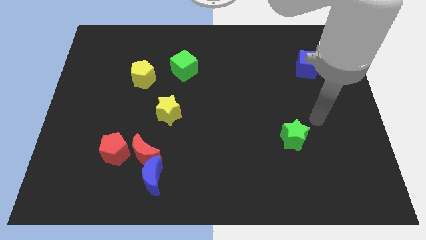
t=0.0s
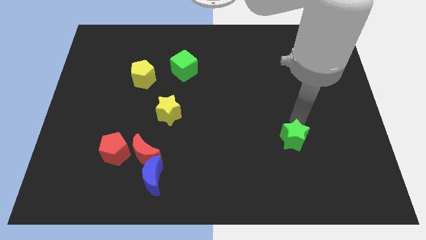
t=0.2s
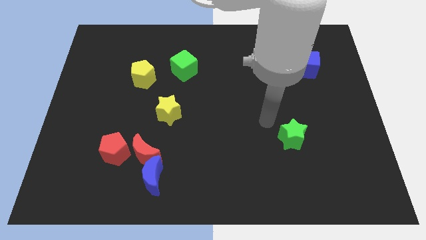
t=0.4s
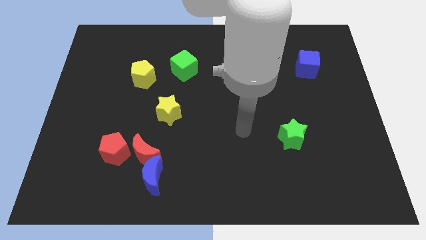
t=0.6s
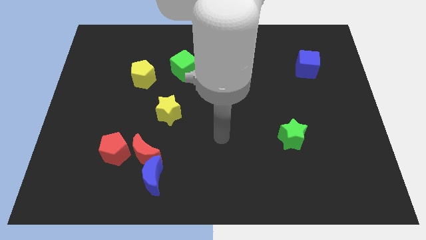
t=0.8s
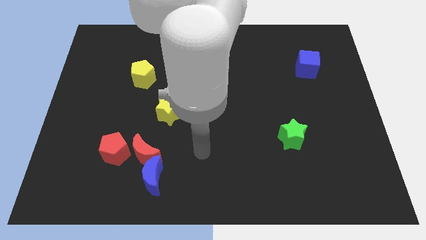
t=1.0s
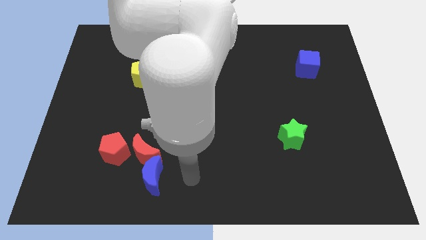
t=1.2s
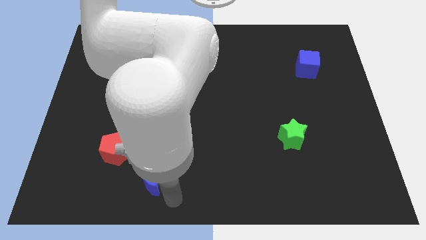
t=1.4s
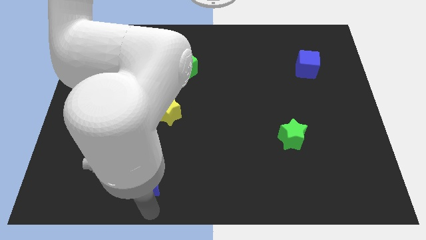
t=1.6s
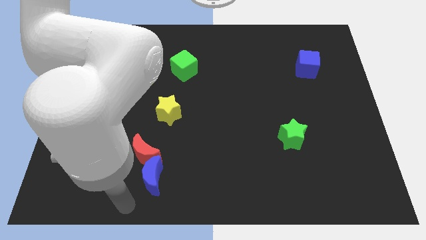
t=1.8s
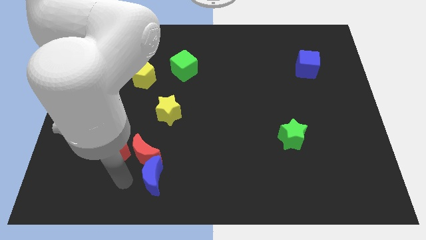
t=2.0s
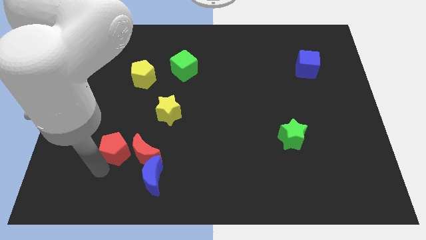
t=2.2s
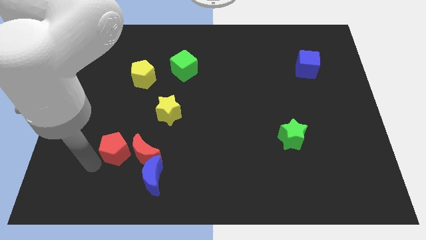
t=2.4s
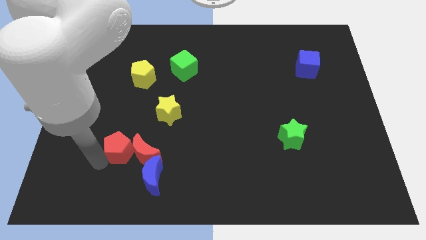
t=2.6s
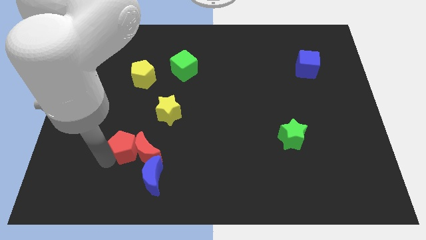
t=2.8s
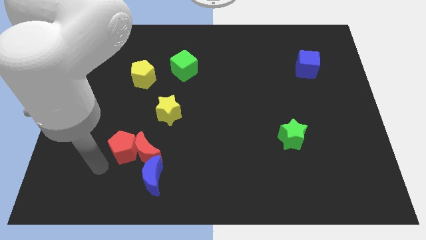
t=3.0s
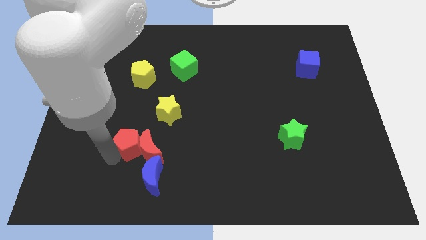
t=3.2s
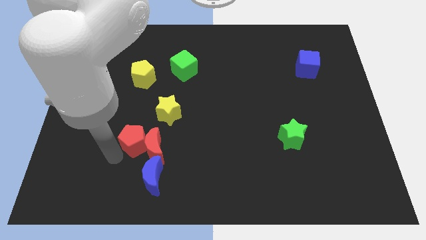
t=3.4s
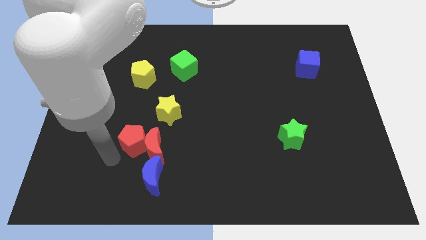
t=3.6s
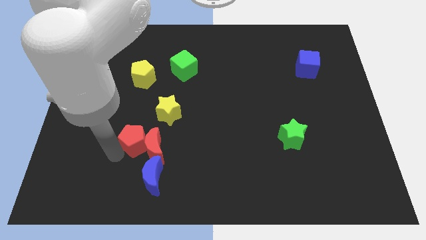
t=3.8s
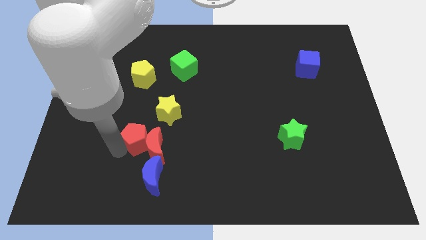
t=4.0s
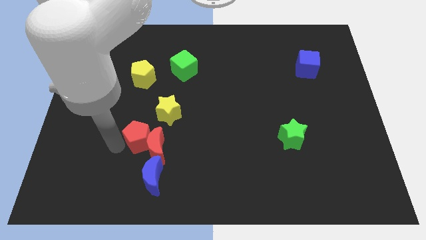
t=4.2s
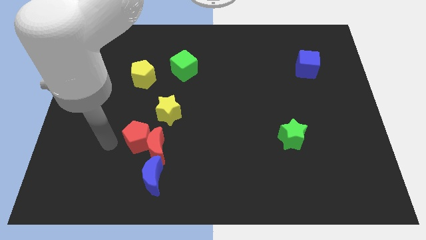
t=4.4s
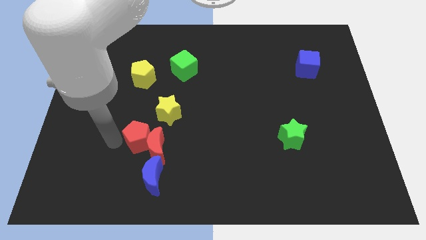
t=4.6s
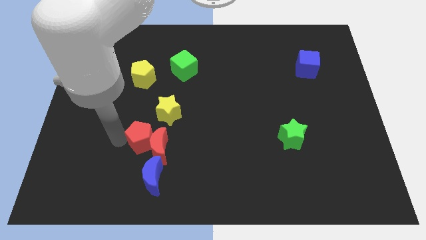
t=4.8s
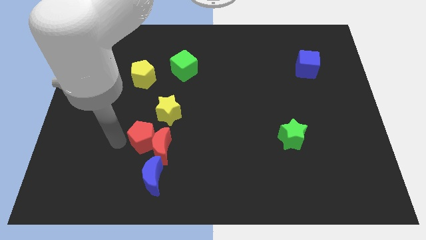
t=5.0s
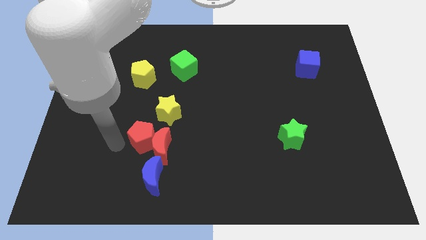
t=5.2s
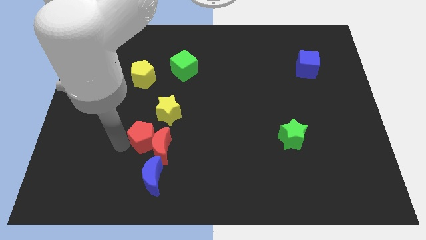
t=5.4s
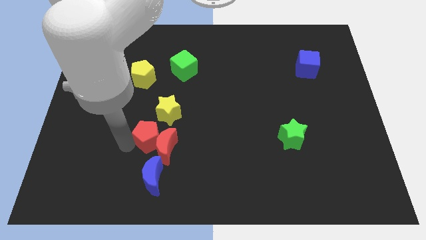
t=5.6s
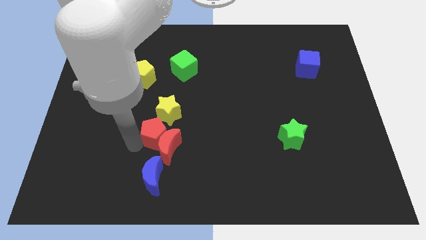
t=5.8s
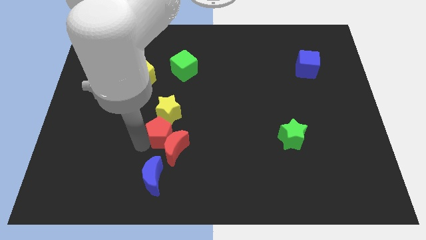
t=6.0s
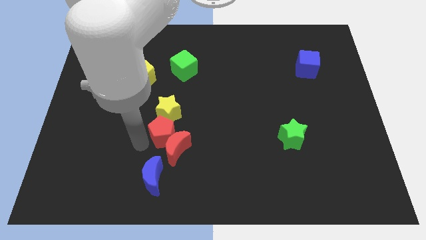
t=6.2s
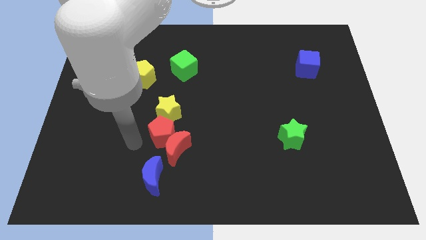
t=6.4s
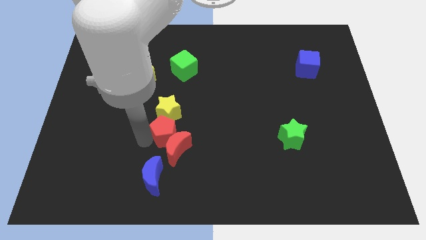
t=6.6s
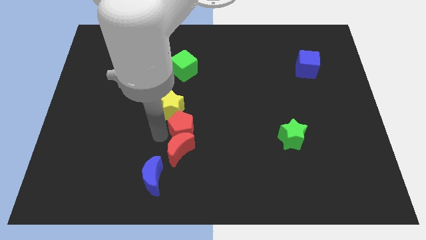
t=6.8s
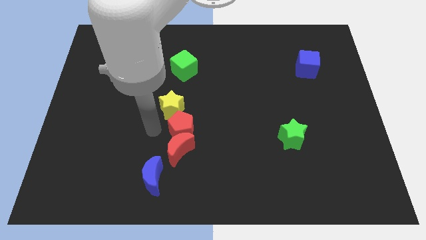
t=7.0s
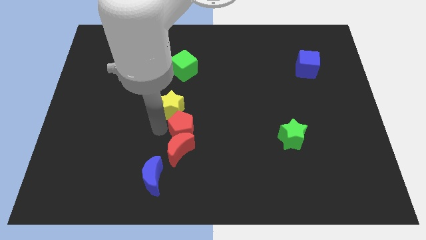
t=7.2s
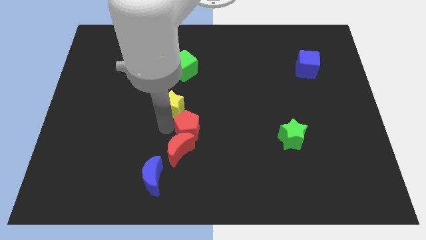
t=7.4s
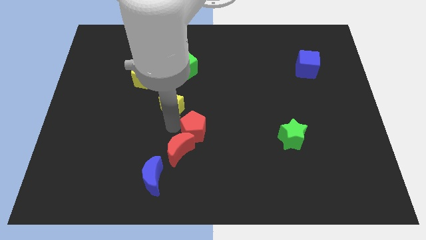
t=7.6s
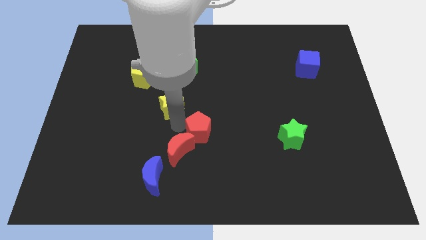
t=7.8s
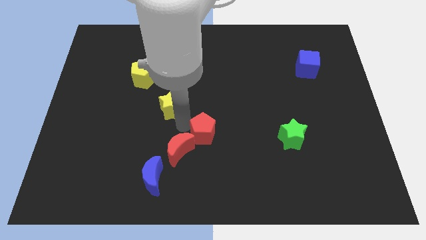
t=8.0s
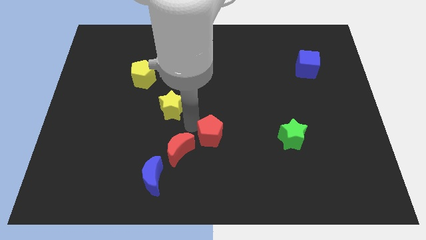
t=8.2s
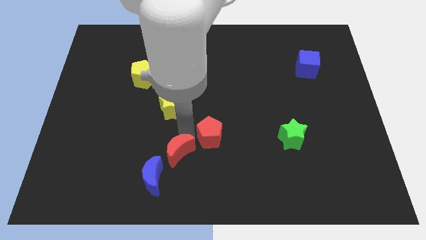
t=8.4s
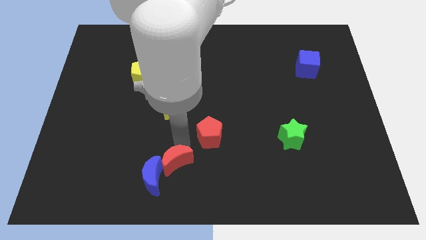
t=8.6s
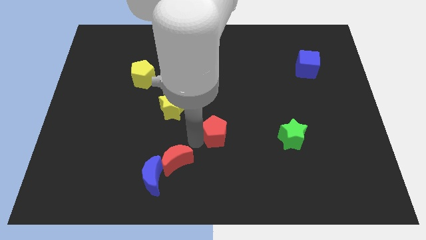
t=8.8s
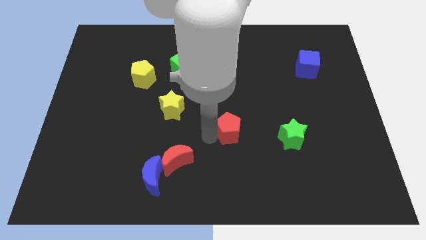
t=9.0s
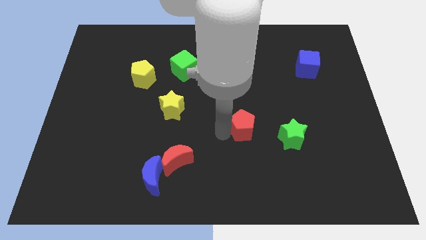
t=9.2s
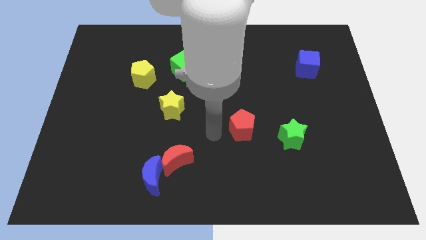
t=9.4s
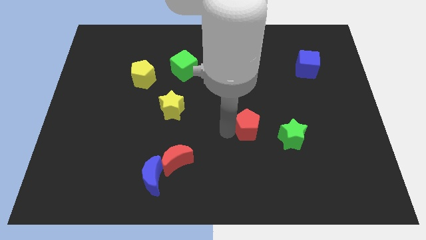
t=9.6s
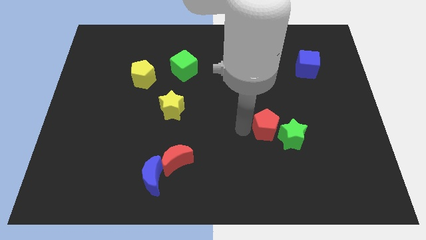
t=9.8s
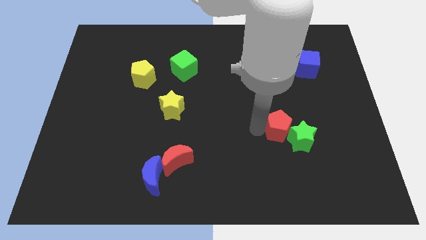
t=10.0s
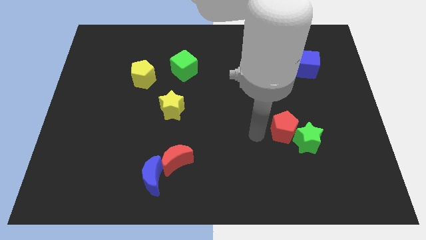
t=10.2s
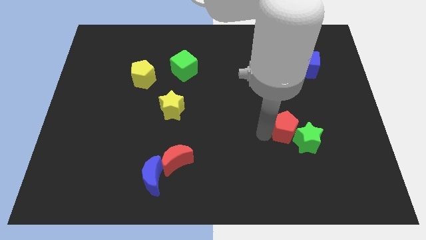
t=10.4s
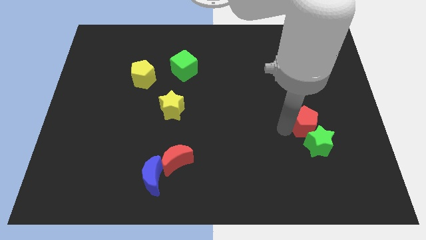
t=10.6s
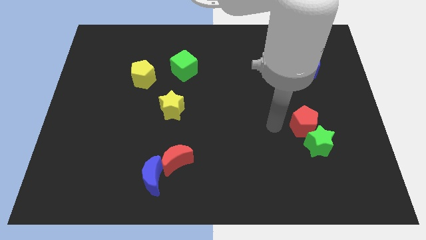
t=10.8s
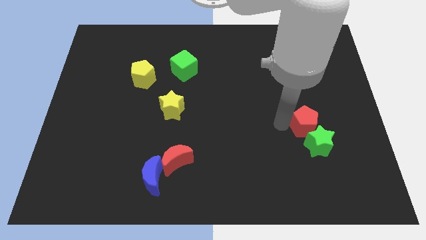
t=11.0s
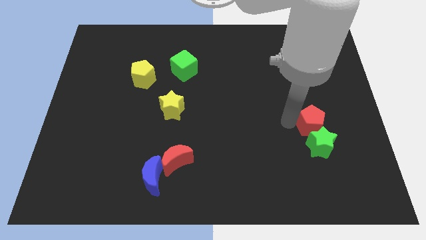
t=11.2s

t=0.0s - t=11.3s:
move the red pentagon diagonally up and to the right of the green star

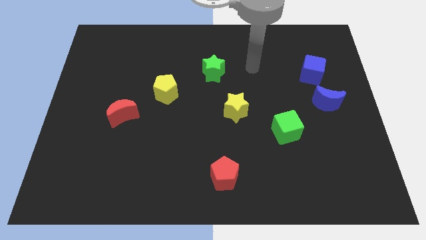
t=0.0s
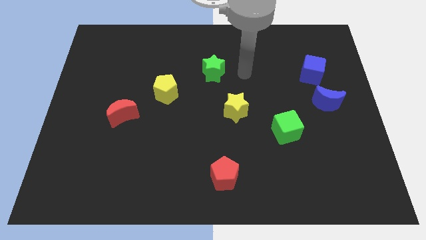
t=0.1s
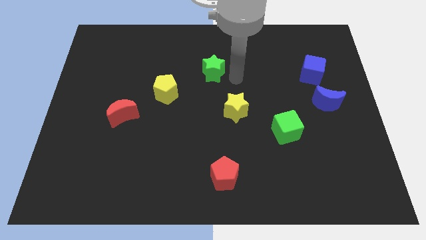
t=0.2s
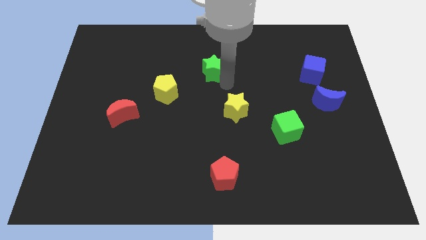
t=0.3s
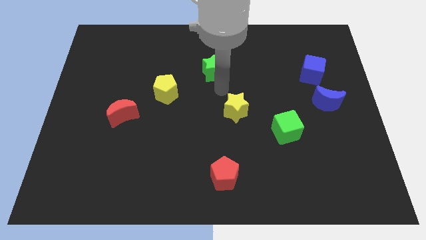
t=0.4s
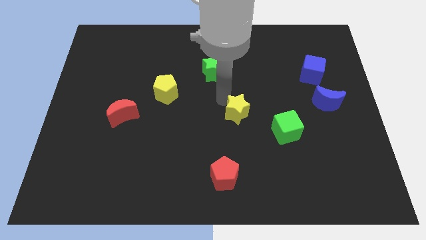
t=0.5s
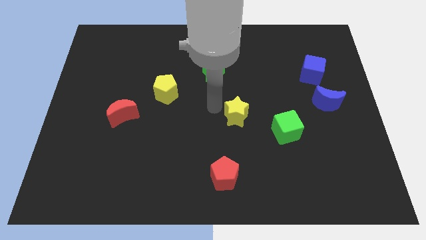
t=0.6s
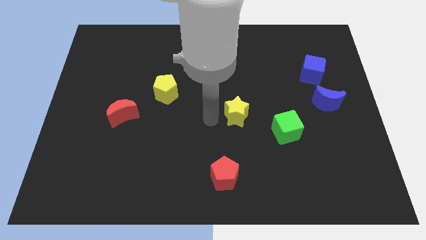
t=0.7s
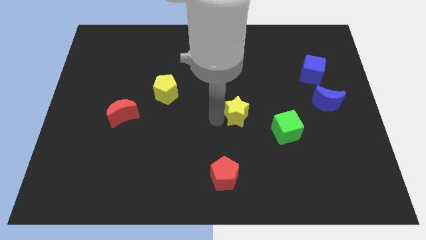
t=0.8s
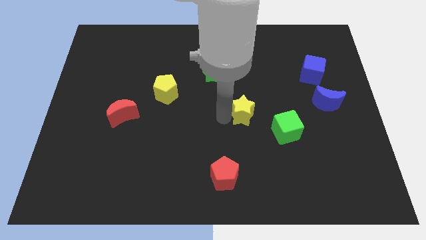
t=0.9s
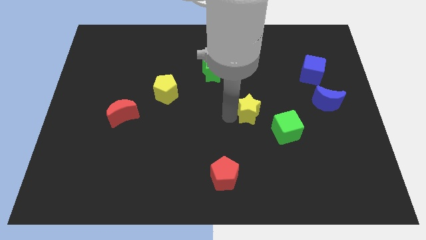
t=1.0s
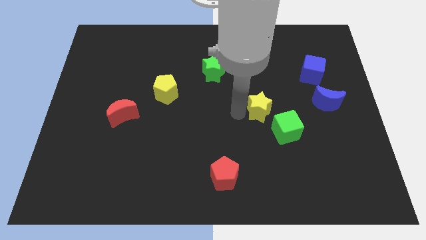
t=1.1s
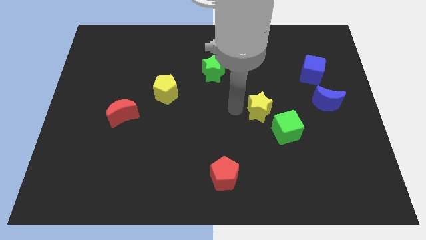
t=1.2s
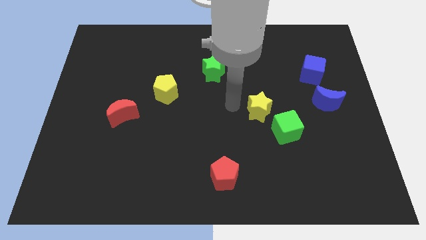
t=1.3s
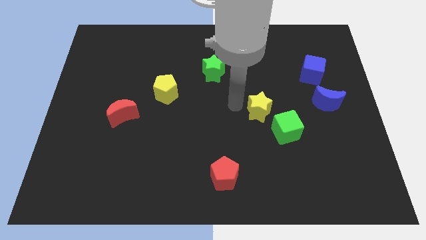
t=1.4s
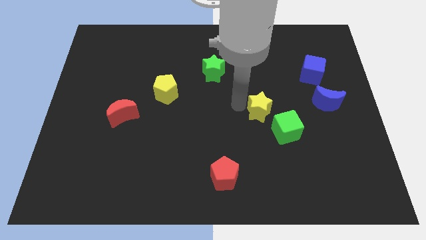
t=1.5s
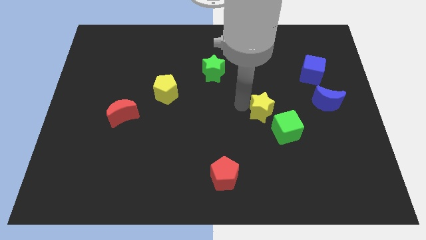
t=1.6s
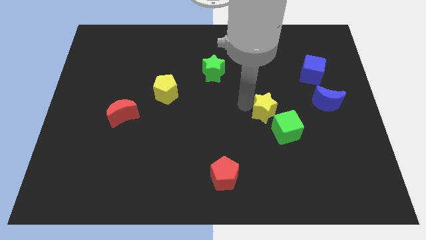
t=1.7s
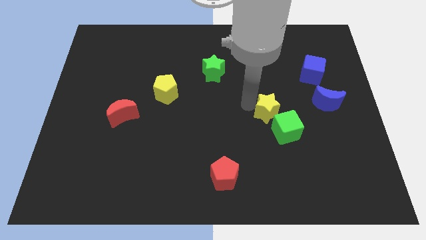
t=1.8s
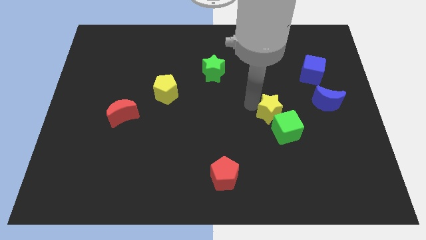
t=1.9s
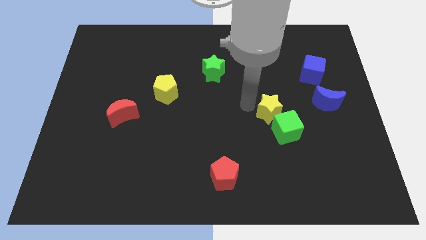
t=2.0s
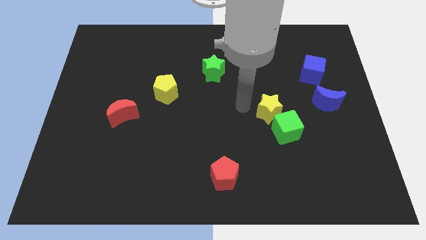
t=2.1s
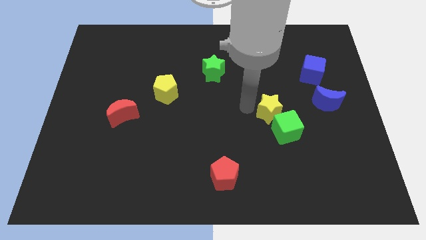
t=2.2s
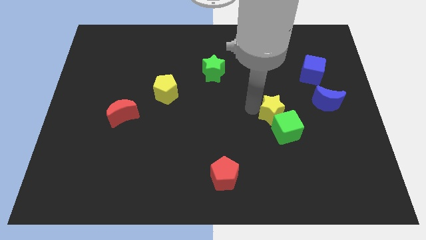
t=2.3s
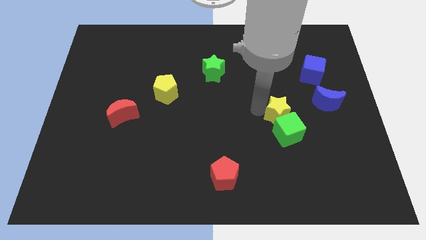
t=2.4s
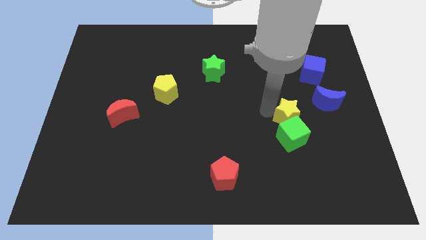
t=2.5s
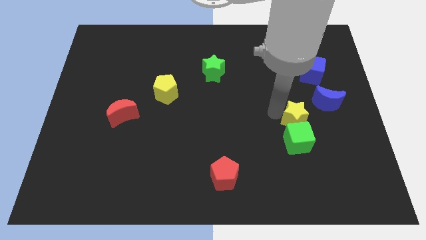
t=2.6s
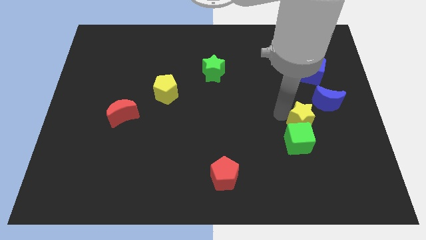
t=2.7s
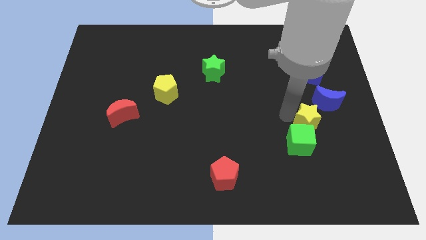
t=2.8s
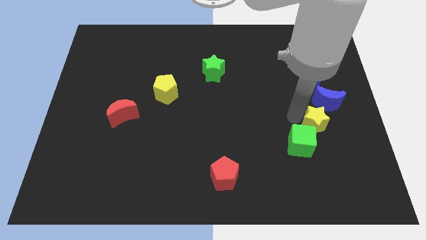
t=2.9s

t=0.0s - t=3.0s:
slide the yellow star below the blue moon
